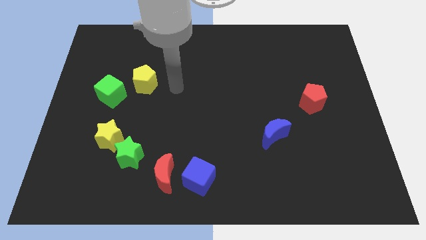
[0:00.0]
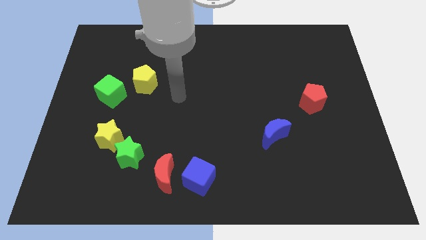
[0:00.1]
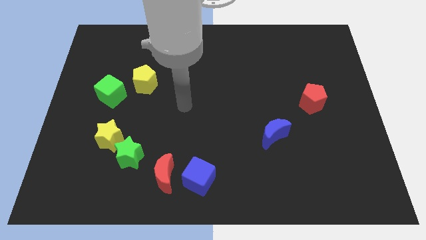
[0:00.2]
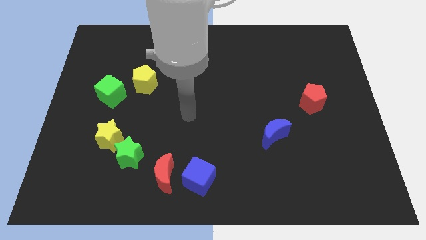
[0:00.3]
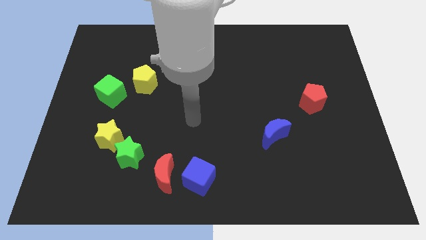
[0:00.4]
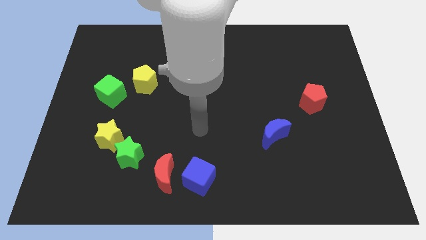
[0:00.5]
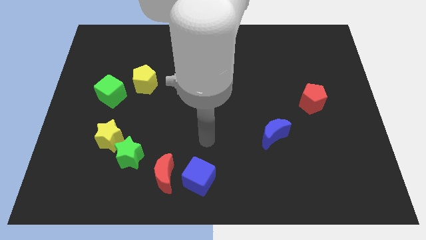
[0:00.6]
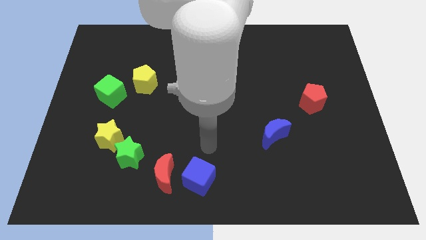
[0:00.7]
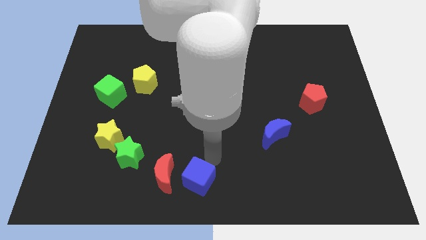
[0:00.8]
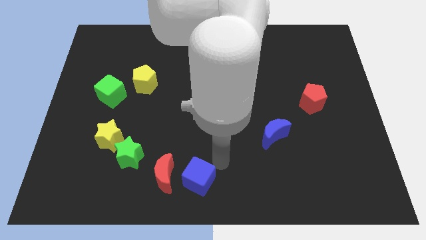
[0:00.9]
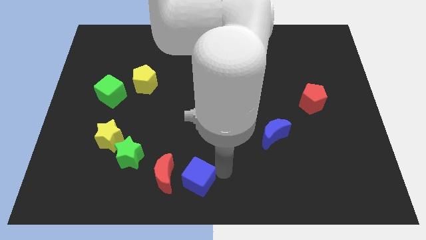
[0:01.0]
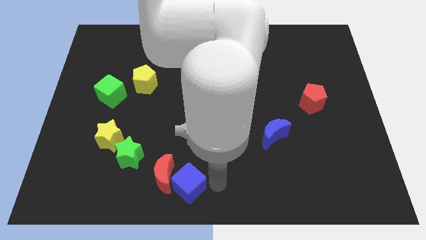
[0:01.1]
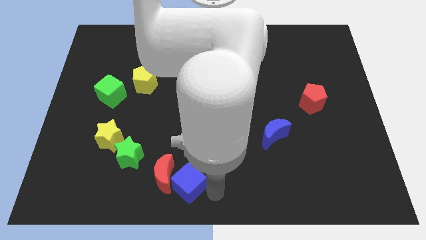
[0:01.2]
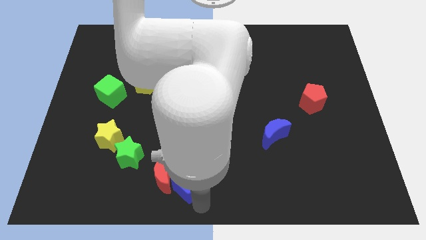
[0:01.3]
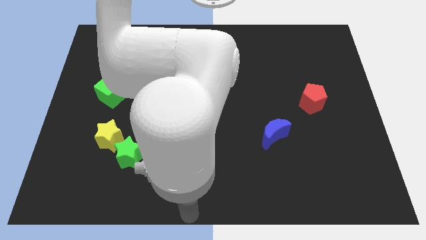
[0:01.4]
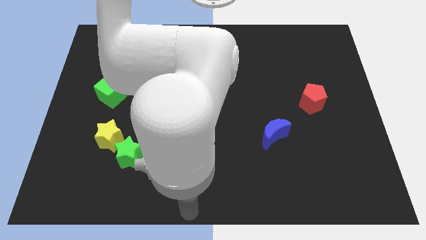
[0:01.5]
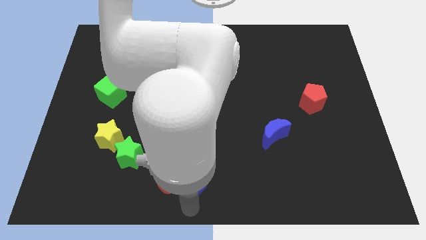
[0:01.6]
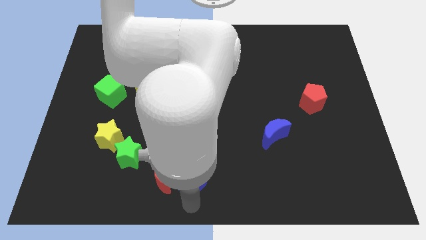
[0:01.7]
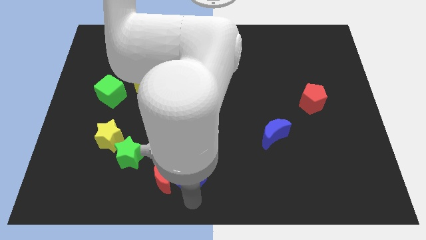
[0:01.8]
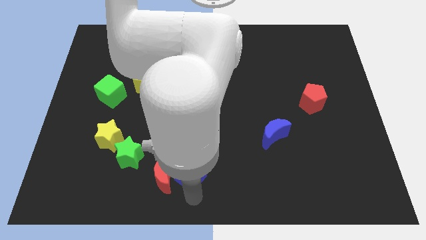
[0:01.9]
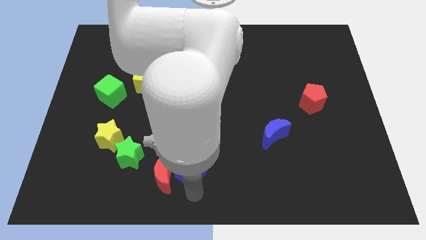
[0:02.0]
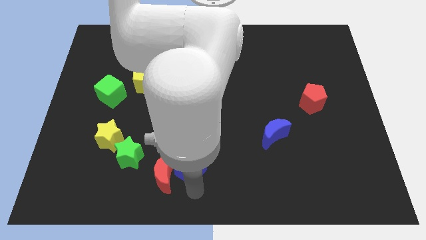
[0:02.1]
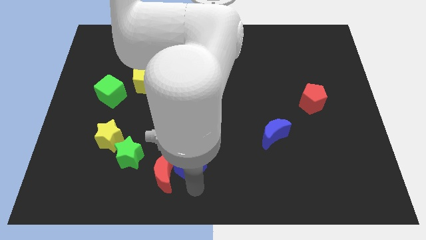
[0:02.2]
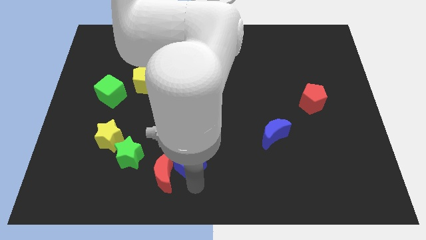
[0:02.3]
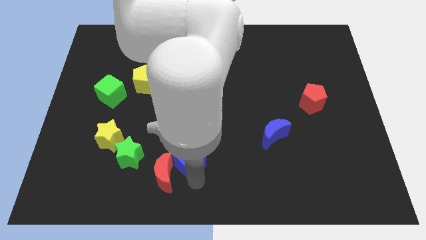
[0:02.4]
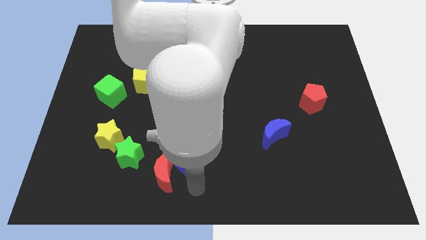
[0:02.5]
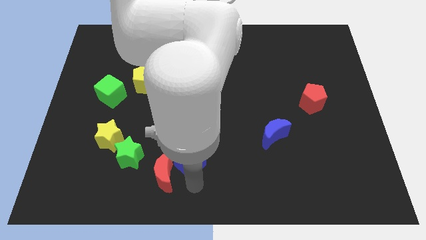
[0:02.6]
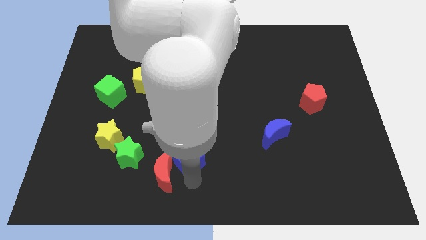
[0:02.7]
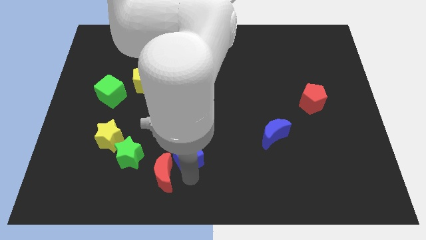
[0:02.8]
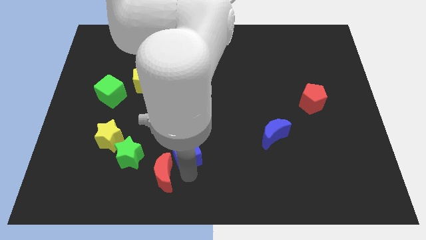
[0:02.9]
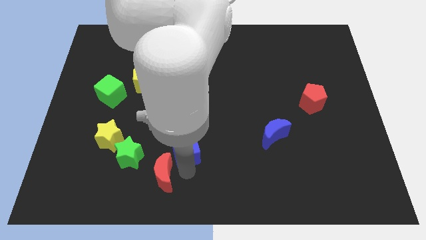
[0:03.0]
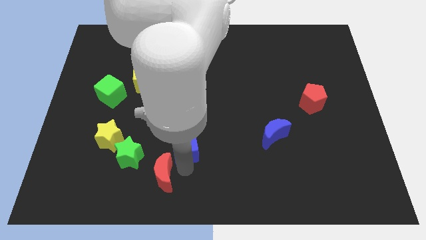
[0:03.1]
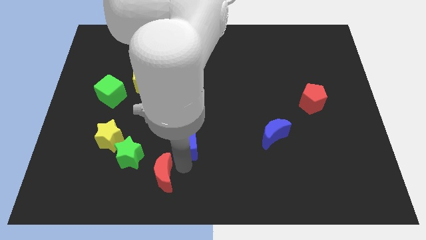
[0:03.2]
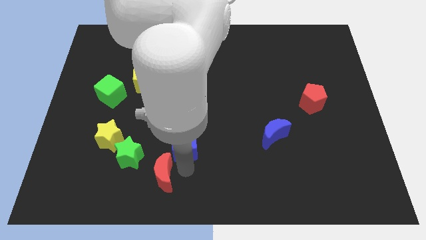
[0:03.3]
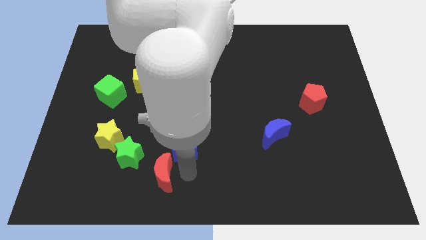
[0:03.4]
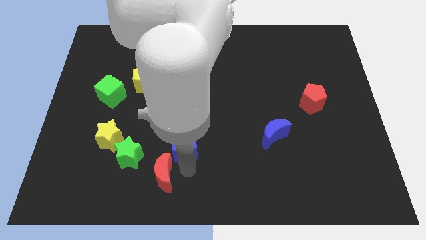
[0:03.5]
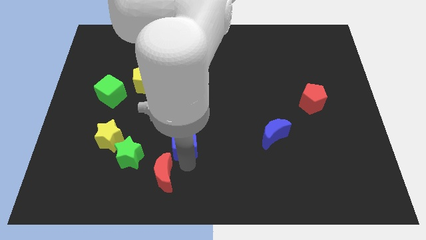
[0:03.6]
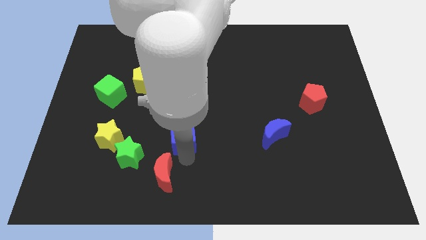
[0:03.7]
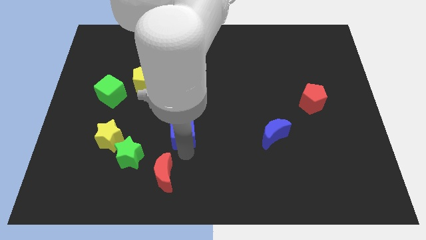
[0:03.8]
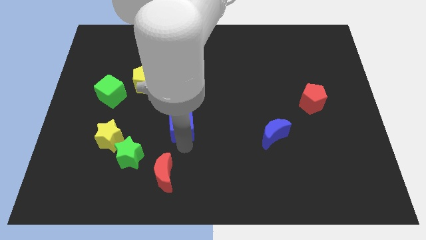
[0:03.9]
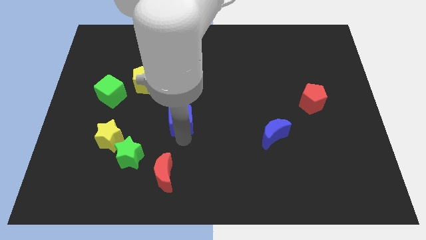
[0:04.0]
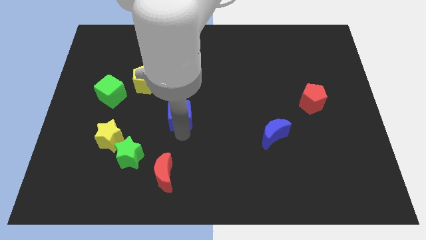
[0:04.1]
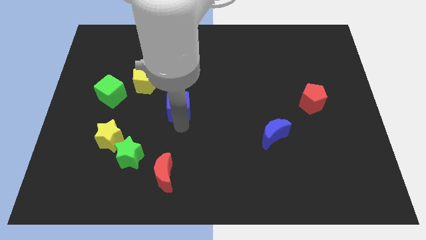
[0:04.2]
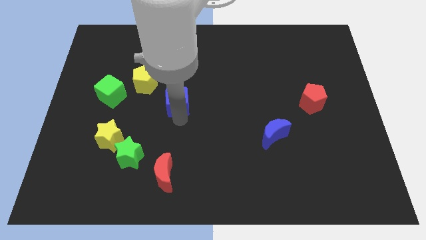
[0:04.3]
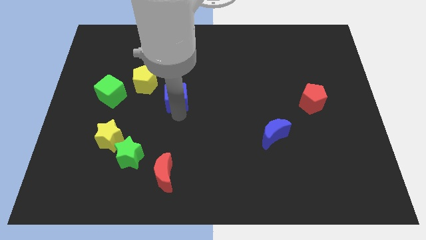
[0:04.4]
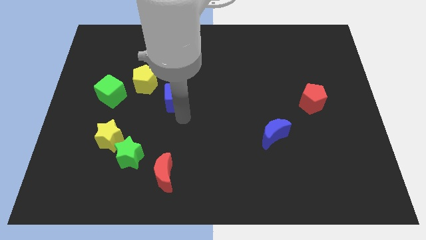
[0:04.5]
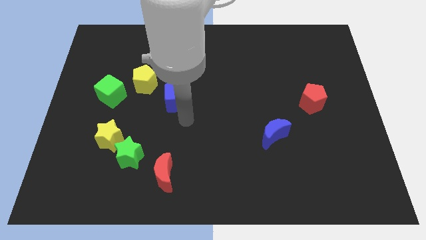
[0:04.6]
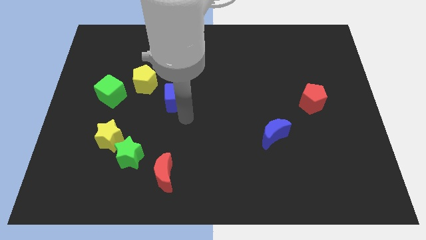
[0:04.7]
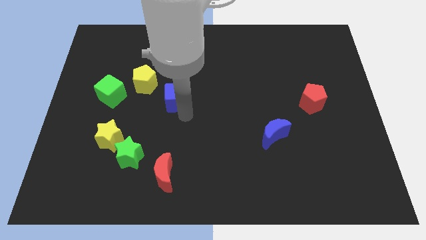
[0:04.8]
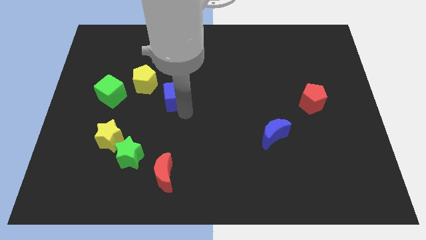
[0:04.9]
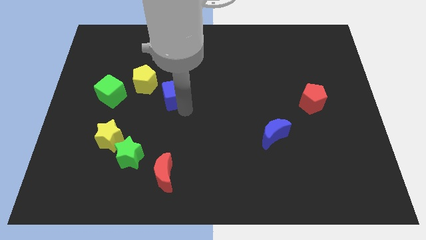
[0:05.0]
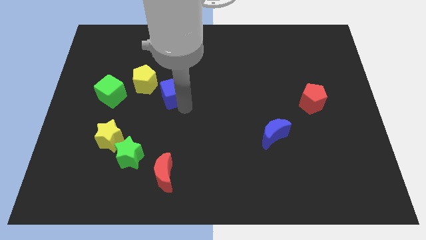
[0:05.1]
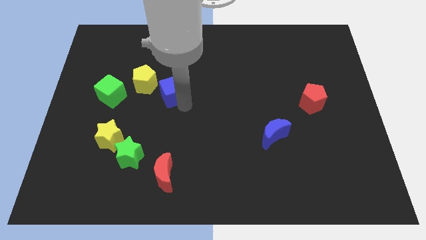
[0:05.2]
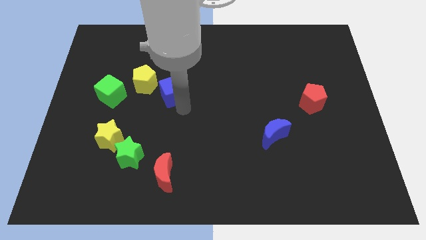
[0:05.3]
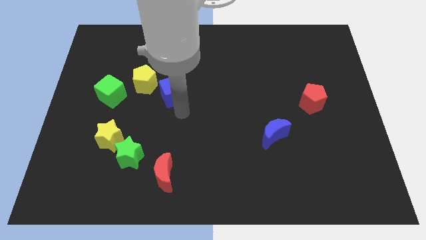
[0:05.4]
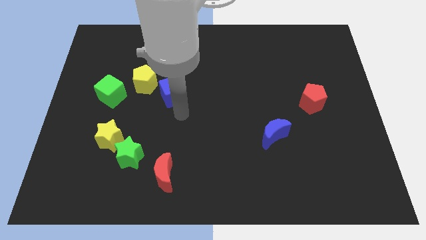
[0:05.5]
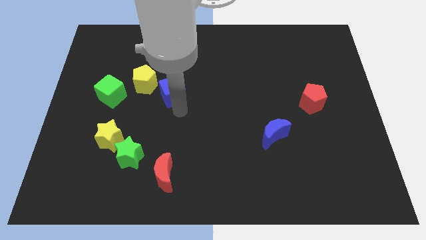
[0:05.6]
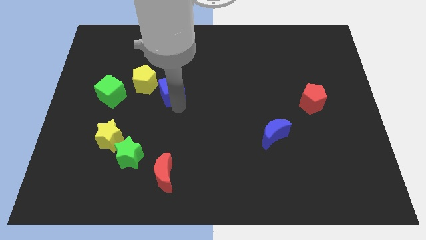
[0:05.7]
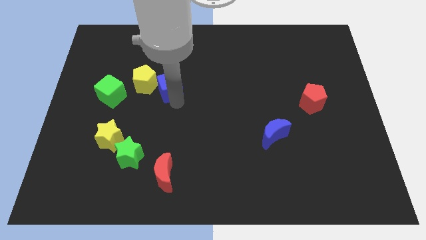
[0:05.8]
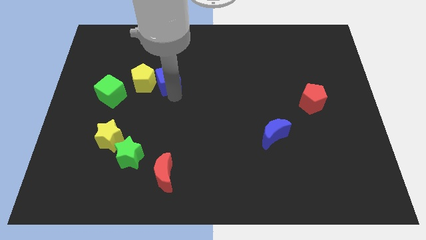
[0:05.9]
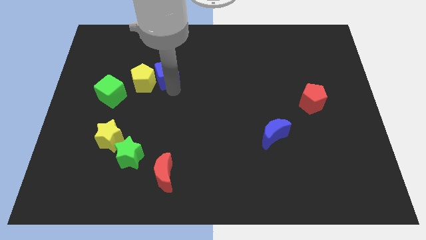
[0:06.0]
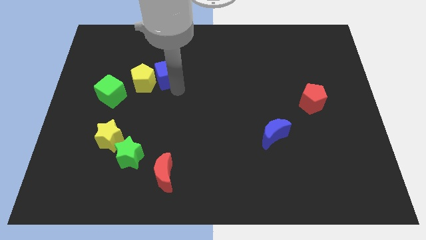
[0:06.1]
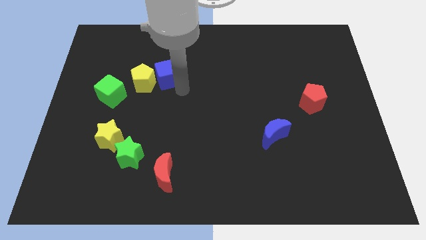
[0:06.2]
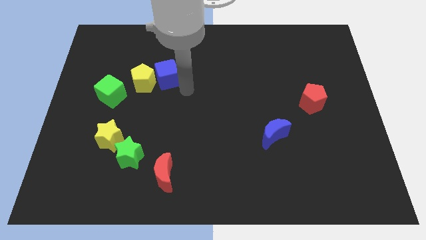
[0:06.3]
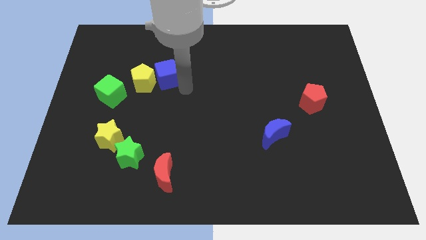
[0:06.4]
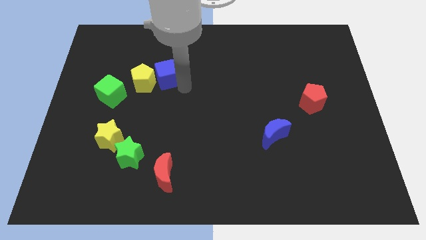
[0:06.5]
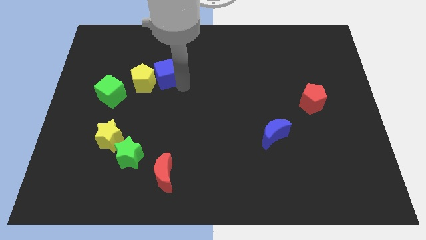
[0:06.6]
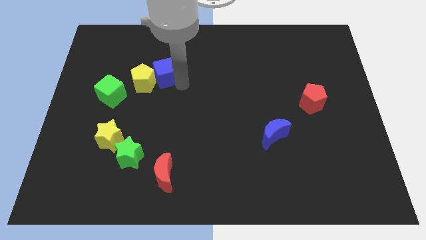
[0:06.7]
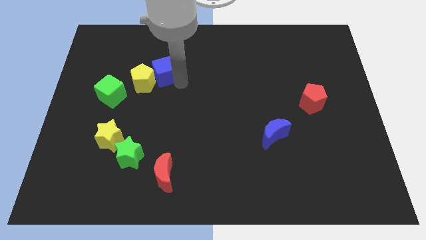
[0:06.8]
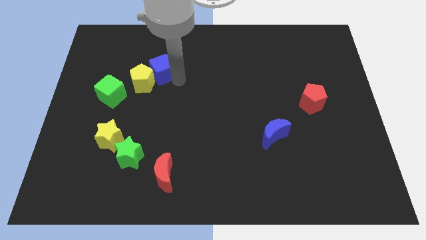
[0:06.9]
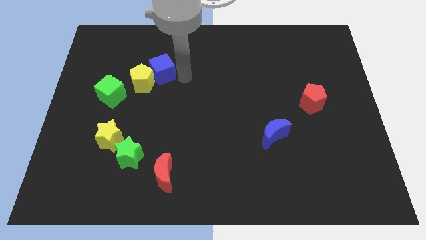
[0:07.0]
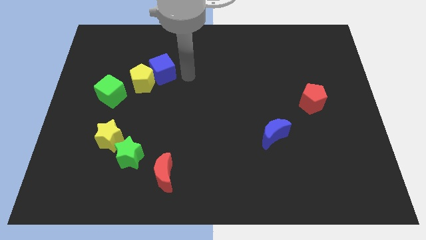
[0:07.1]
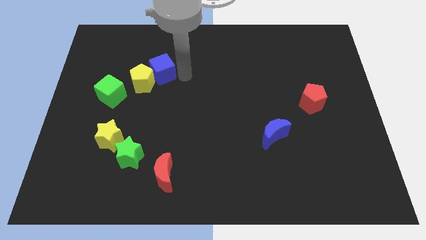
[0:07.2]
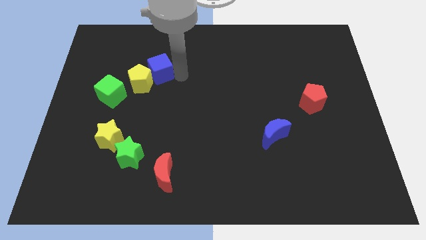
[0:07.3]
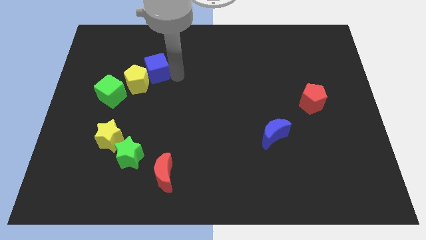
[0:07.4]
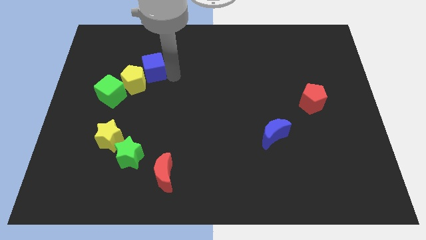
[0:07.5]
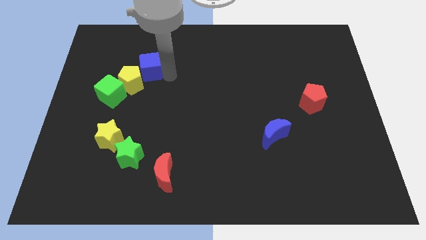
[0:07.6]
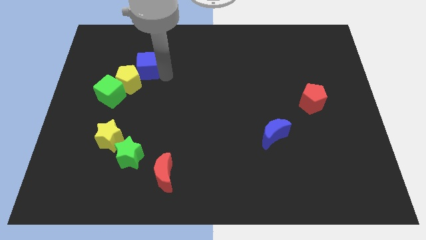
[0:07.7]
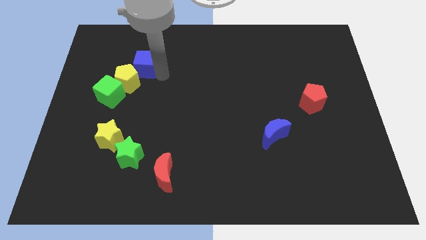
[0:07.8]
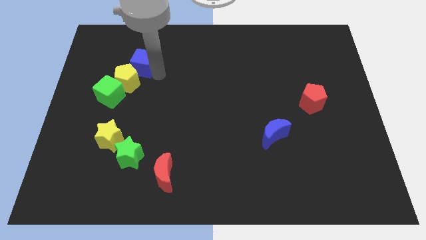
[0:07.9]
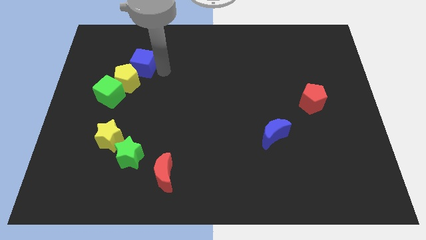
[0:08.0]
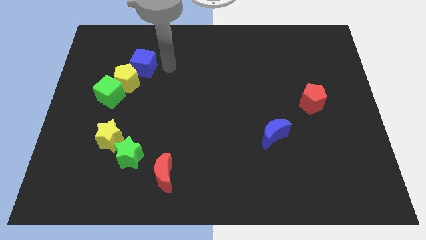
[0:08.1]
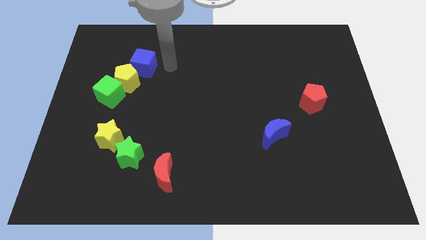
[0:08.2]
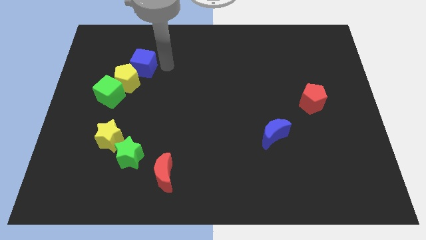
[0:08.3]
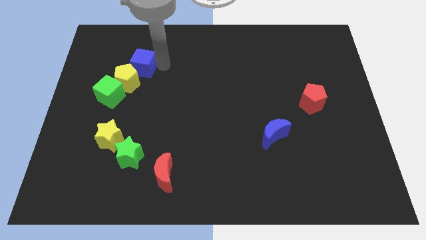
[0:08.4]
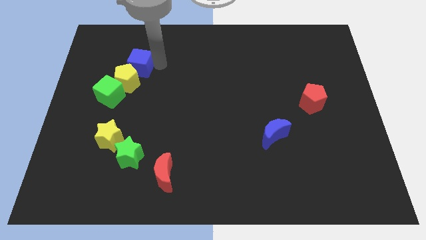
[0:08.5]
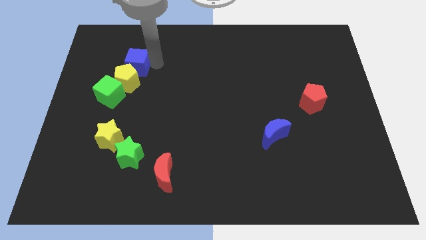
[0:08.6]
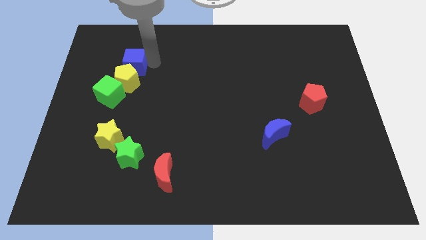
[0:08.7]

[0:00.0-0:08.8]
move the blue cube to the top left of the yellow pentagon
